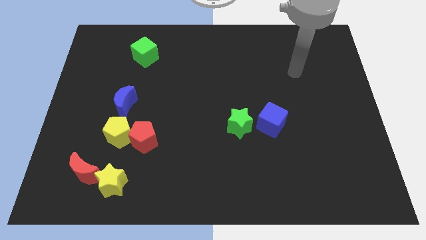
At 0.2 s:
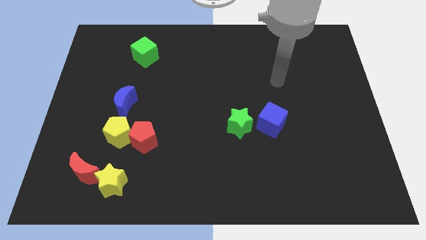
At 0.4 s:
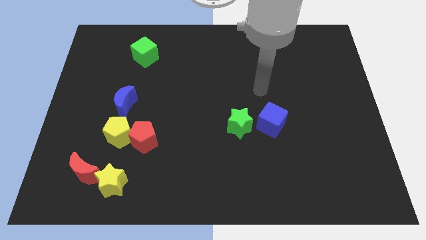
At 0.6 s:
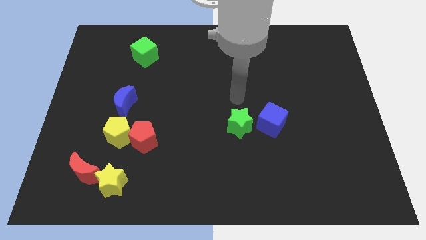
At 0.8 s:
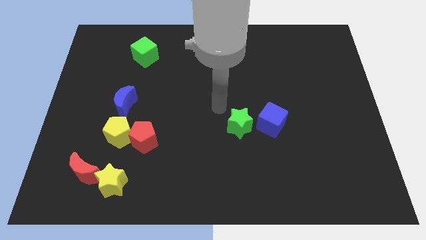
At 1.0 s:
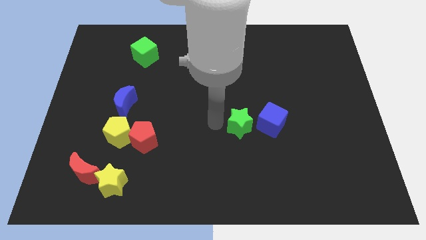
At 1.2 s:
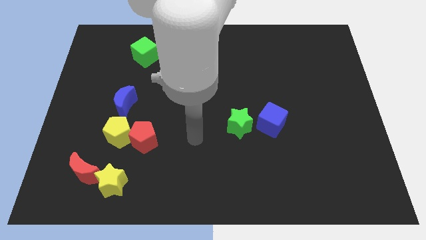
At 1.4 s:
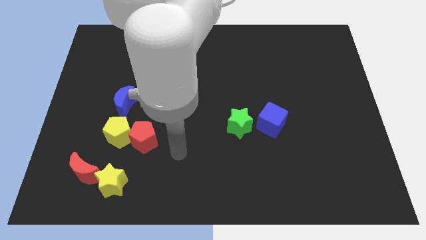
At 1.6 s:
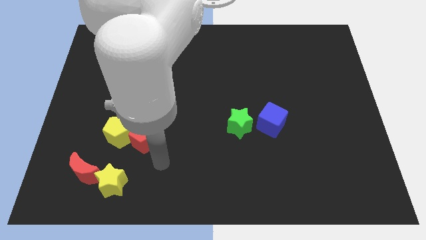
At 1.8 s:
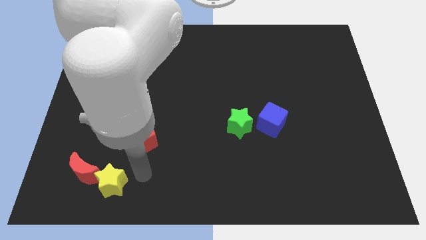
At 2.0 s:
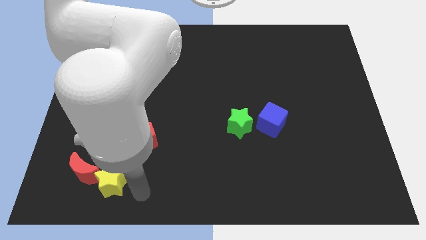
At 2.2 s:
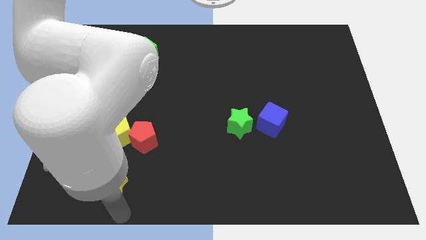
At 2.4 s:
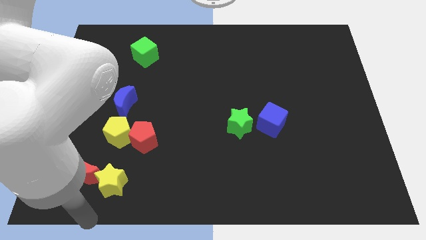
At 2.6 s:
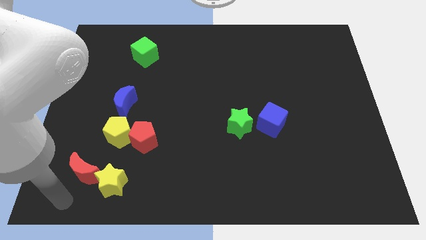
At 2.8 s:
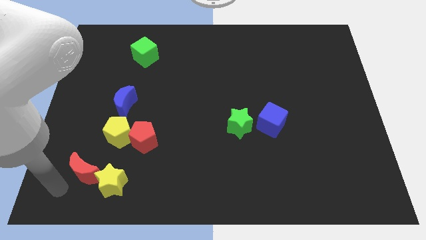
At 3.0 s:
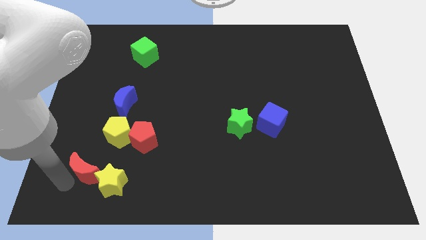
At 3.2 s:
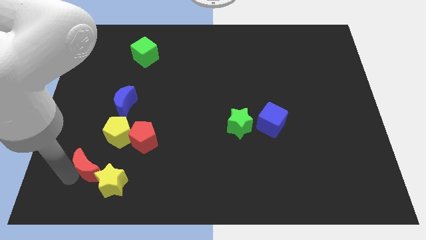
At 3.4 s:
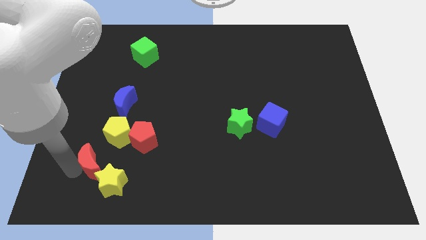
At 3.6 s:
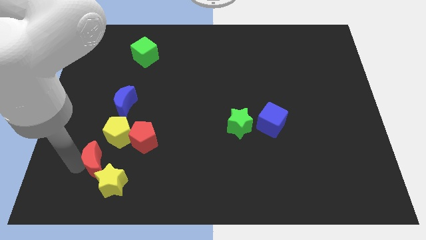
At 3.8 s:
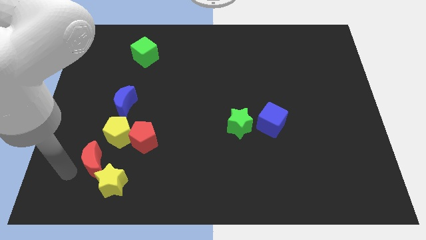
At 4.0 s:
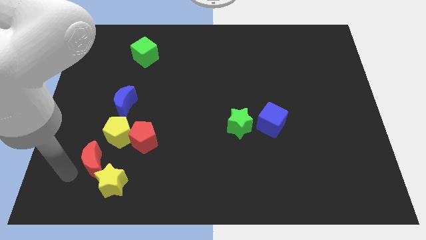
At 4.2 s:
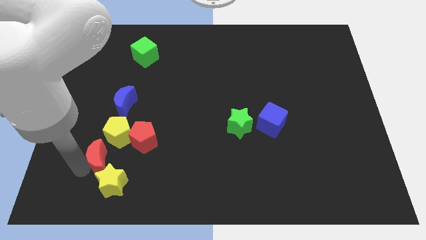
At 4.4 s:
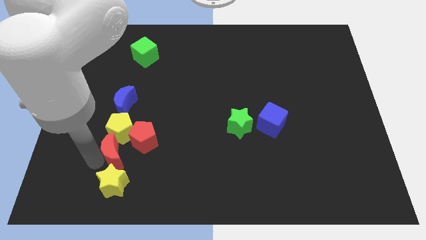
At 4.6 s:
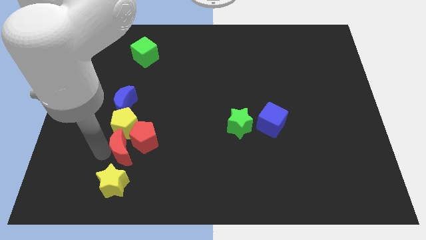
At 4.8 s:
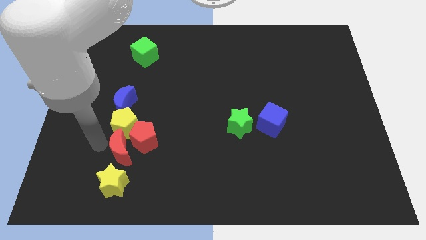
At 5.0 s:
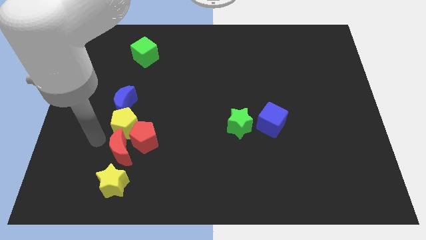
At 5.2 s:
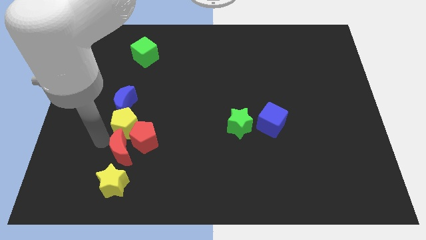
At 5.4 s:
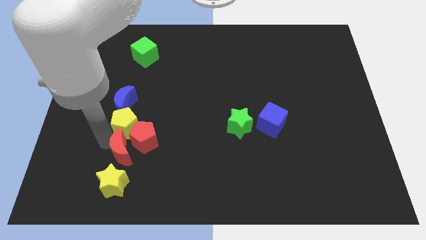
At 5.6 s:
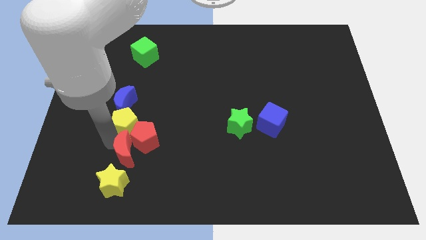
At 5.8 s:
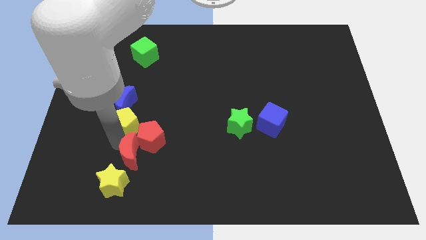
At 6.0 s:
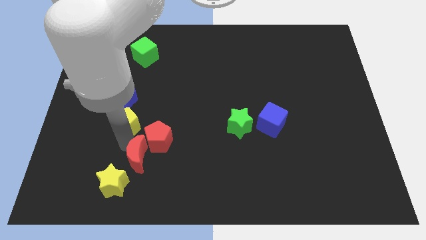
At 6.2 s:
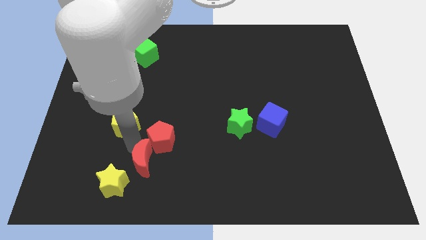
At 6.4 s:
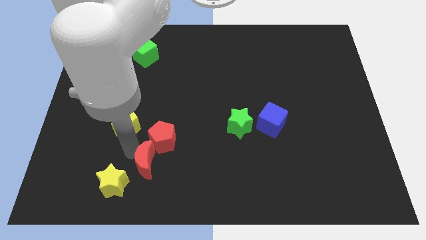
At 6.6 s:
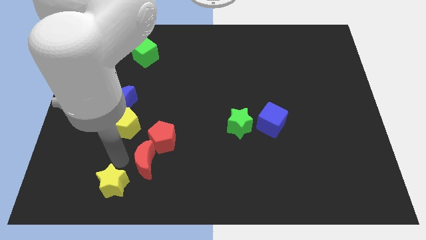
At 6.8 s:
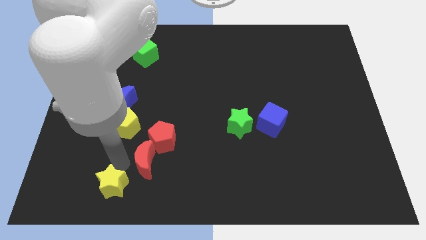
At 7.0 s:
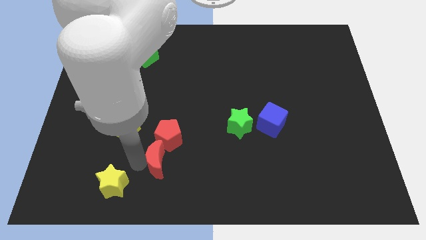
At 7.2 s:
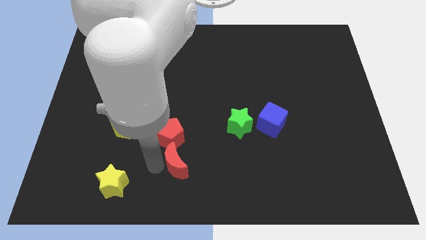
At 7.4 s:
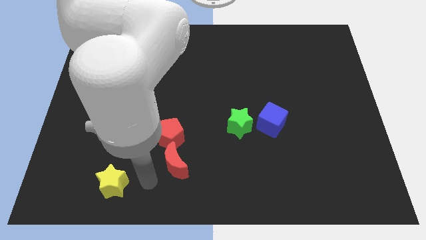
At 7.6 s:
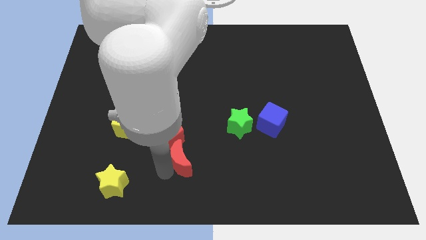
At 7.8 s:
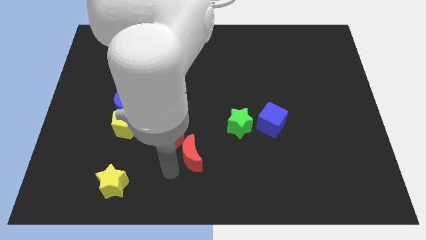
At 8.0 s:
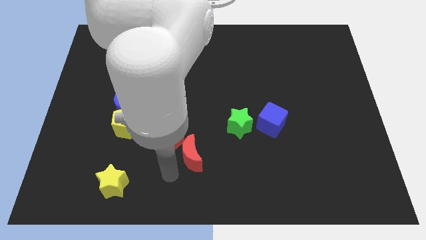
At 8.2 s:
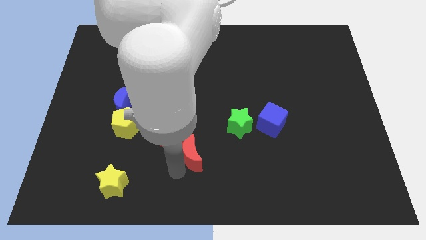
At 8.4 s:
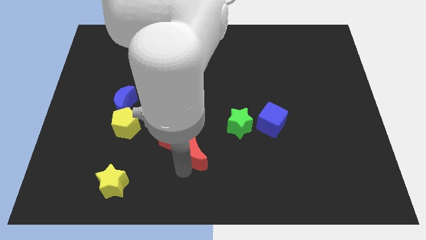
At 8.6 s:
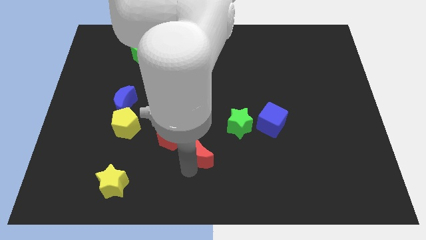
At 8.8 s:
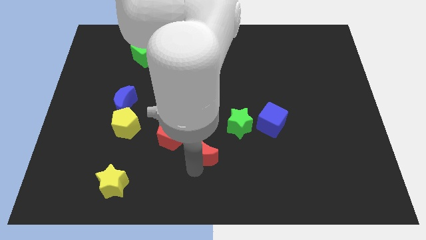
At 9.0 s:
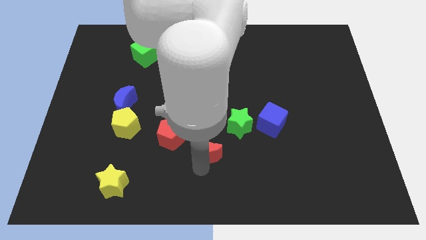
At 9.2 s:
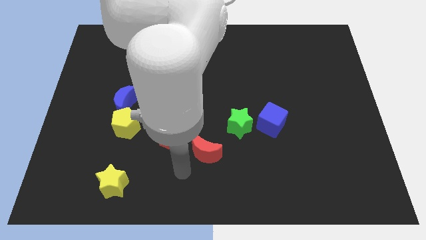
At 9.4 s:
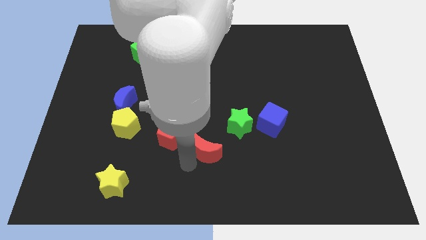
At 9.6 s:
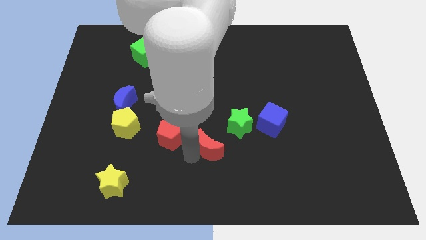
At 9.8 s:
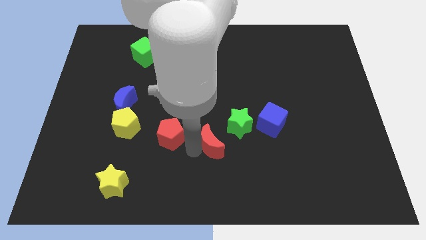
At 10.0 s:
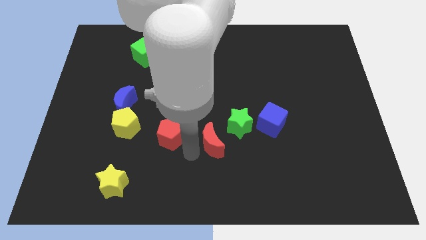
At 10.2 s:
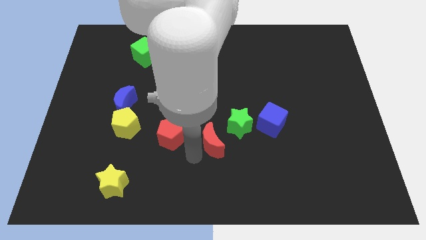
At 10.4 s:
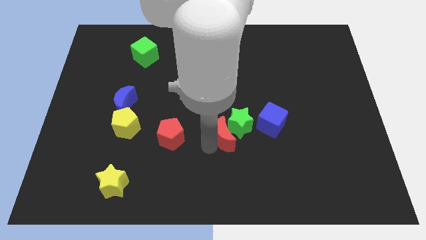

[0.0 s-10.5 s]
put the red moon to the green star

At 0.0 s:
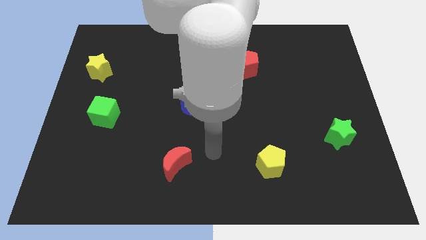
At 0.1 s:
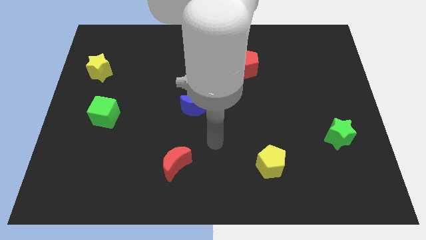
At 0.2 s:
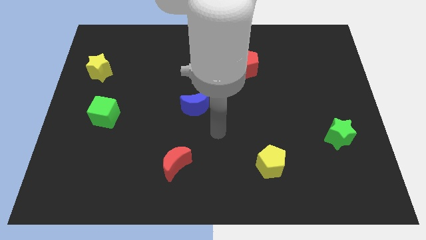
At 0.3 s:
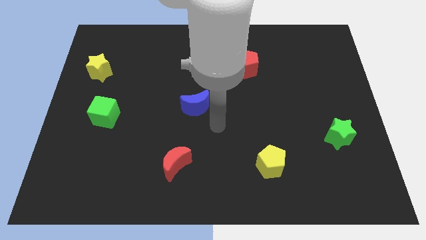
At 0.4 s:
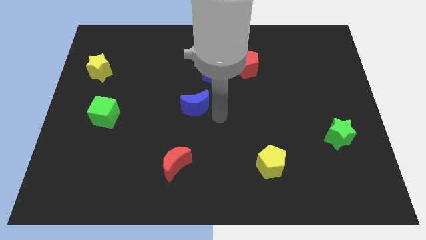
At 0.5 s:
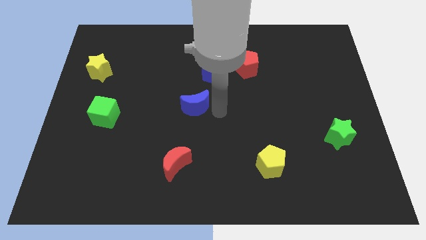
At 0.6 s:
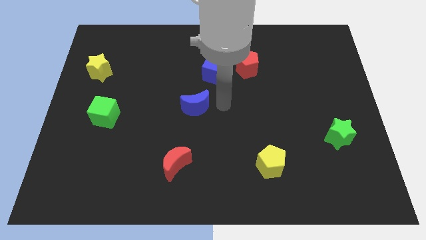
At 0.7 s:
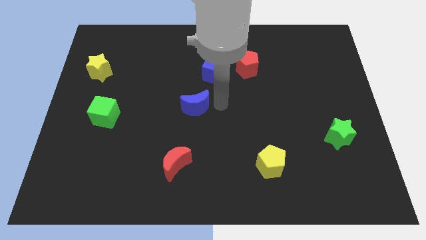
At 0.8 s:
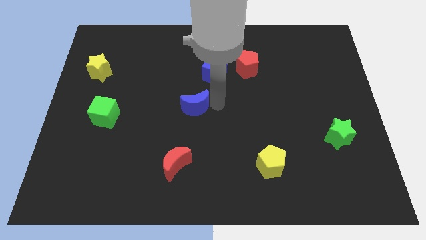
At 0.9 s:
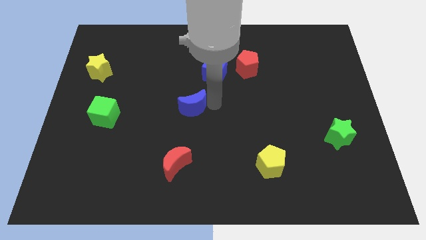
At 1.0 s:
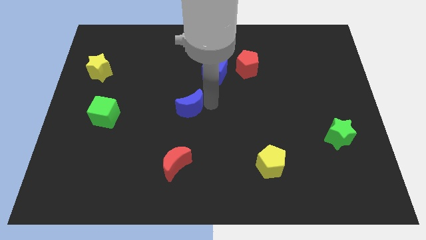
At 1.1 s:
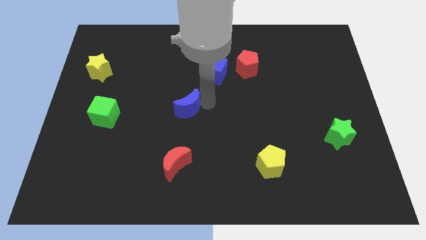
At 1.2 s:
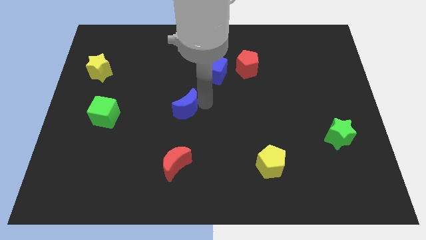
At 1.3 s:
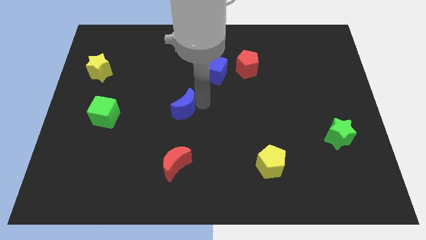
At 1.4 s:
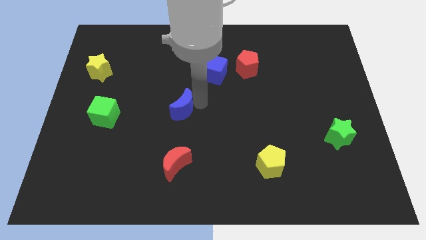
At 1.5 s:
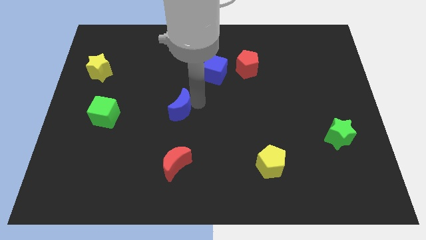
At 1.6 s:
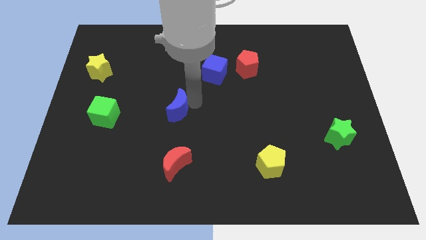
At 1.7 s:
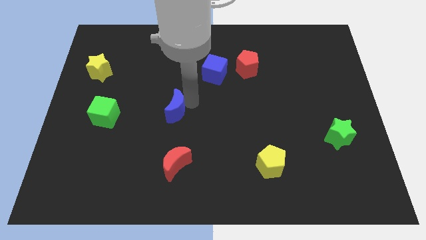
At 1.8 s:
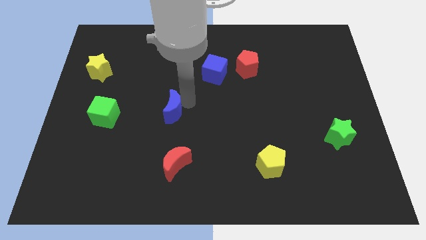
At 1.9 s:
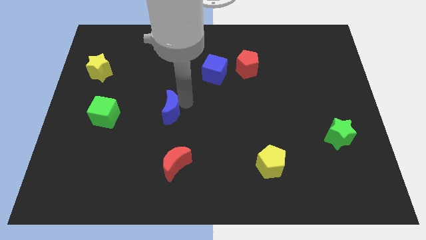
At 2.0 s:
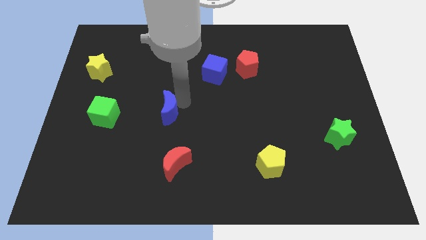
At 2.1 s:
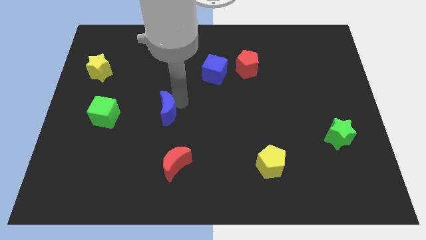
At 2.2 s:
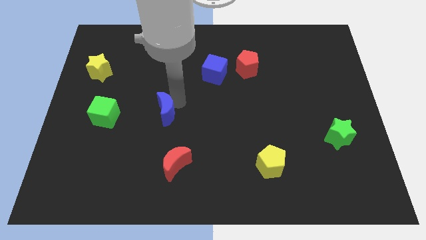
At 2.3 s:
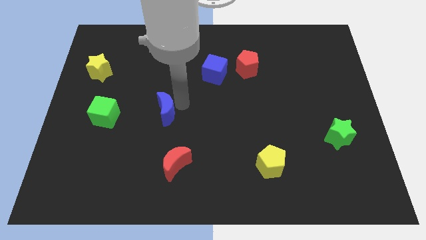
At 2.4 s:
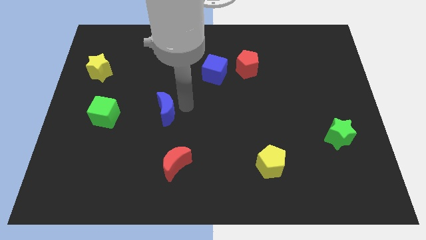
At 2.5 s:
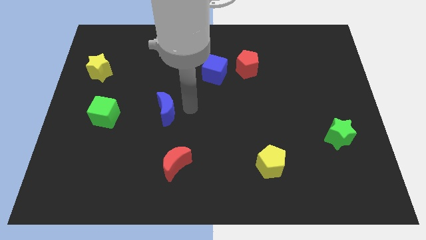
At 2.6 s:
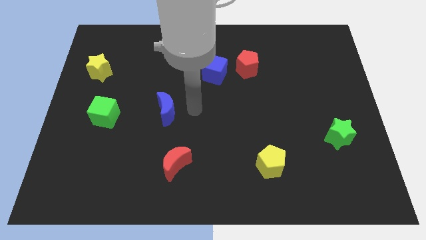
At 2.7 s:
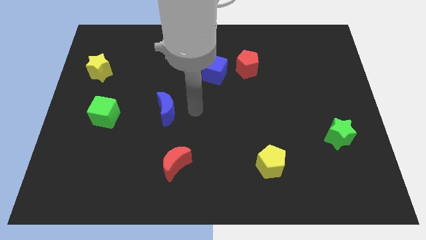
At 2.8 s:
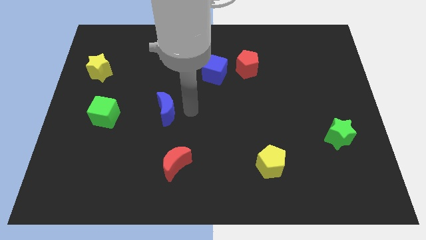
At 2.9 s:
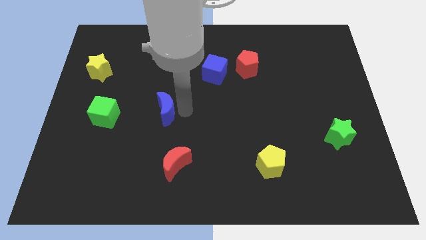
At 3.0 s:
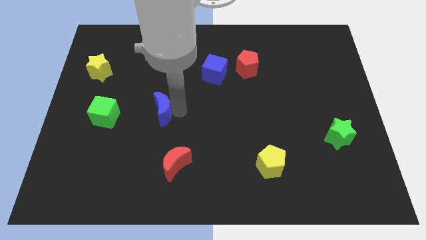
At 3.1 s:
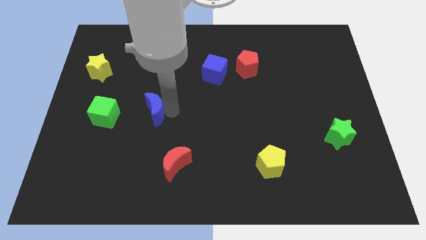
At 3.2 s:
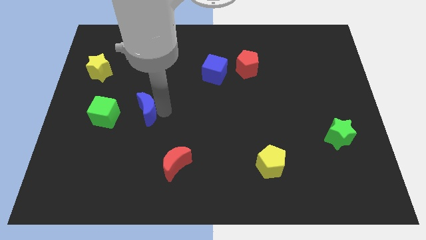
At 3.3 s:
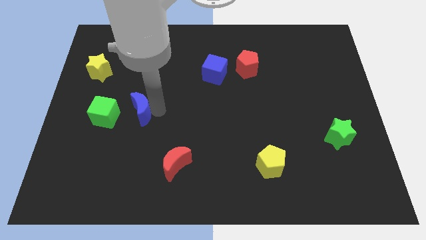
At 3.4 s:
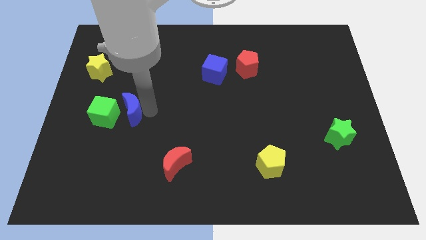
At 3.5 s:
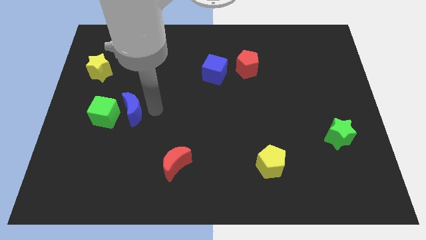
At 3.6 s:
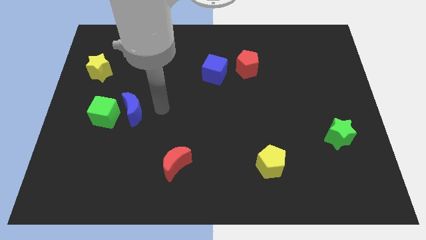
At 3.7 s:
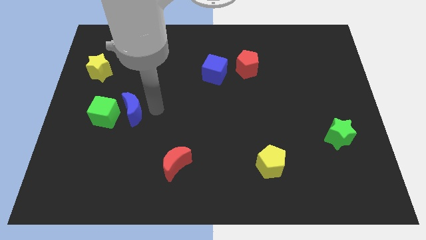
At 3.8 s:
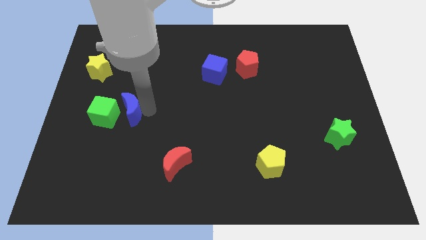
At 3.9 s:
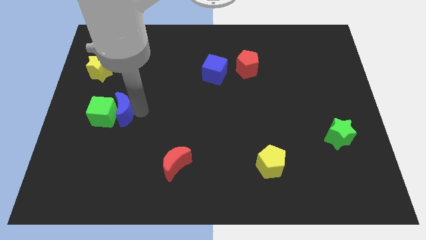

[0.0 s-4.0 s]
push the blue moon to the green cube
